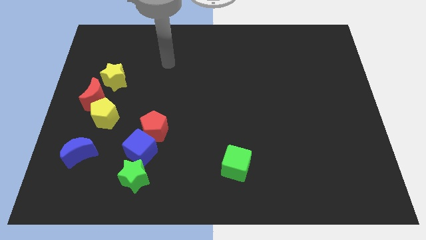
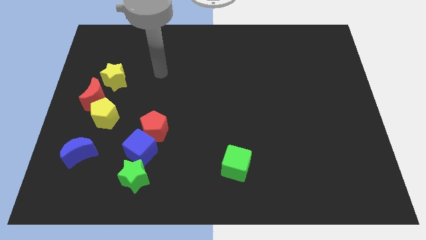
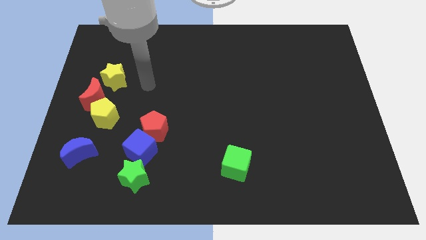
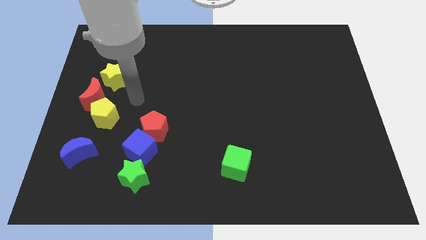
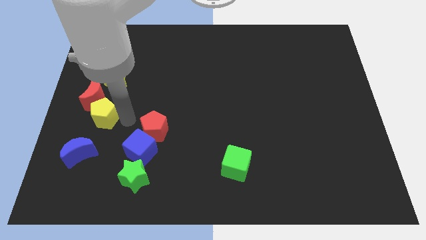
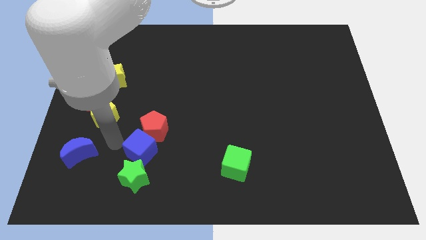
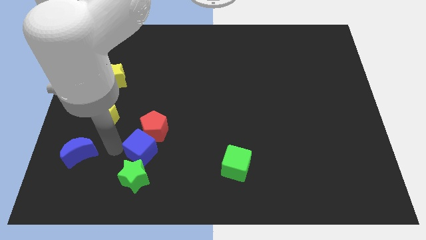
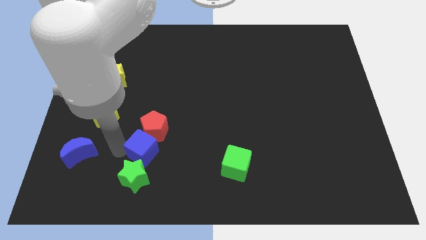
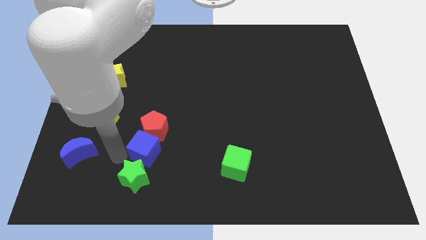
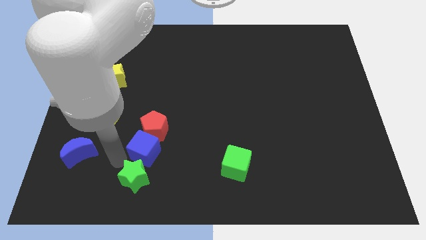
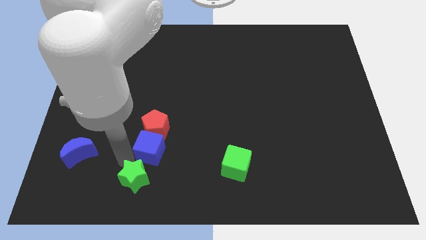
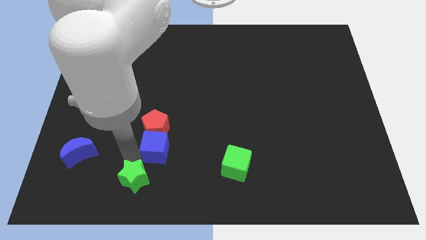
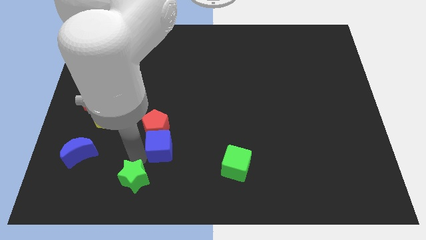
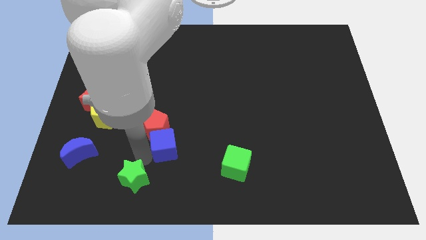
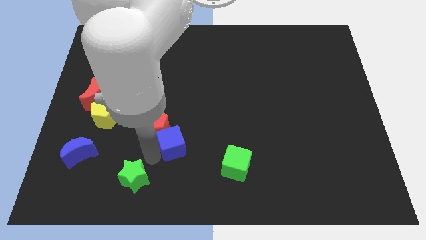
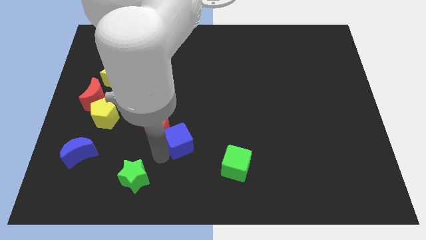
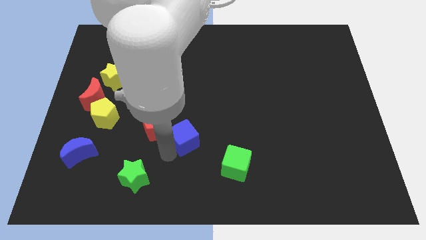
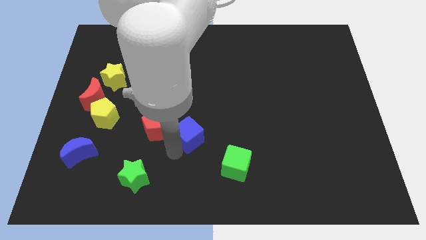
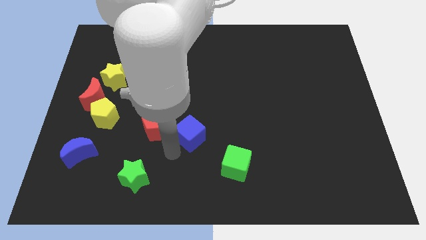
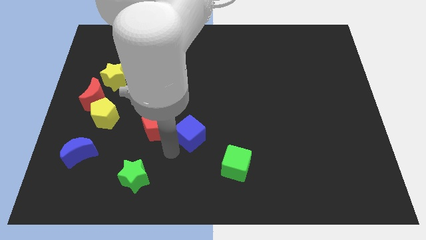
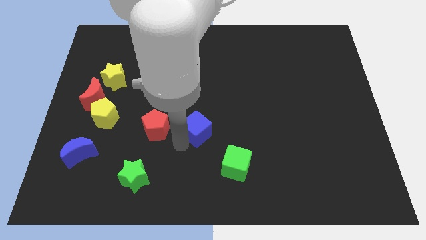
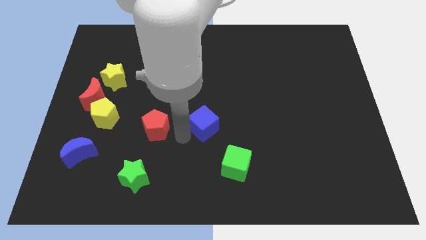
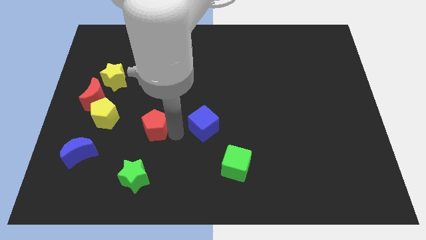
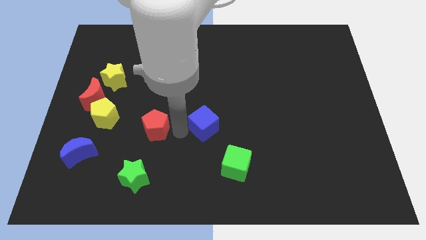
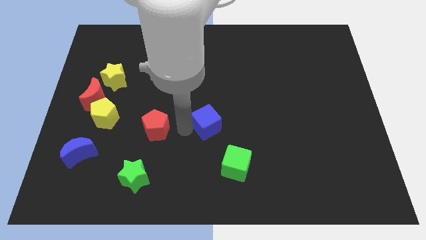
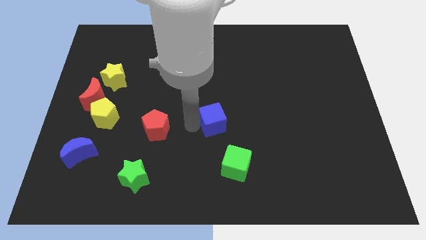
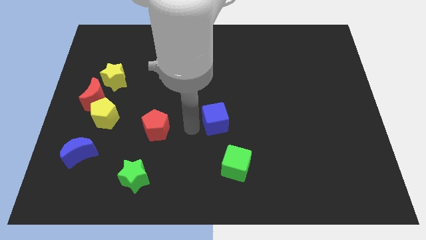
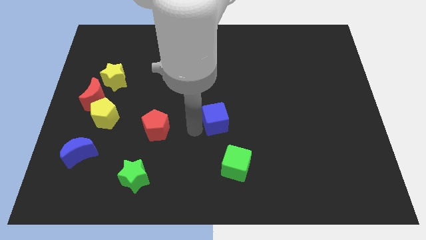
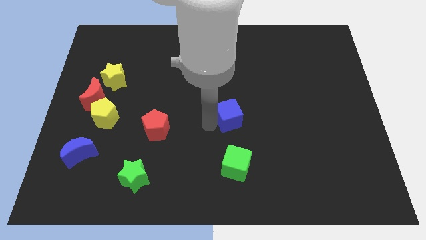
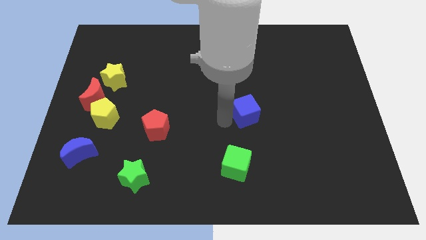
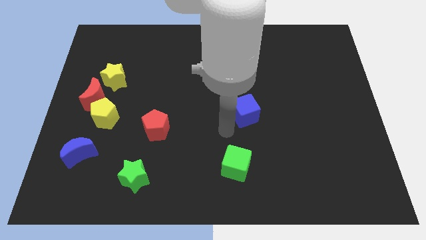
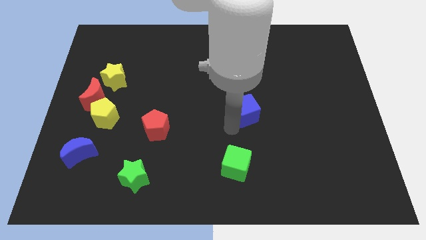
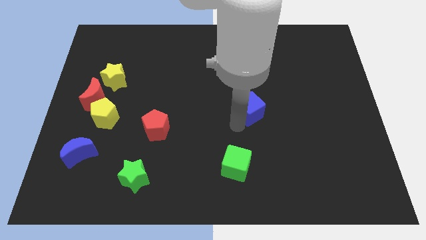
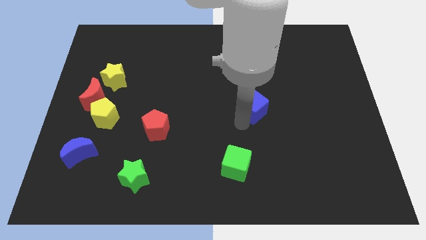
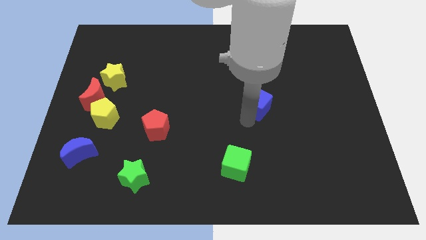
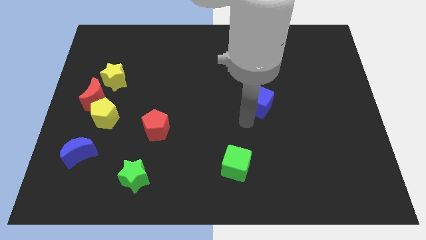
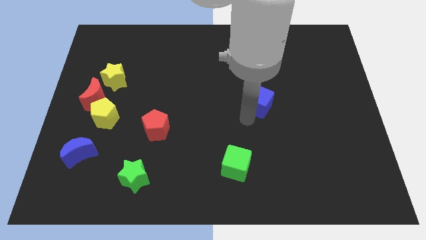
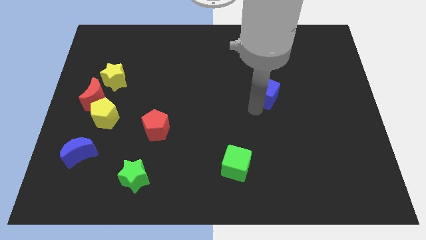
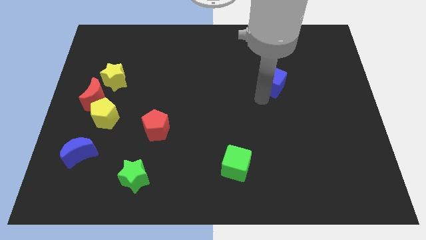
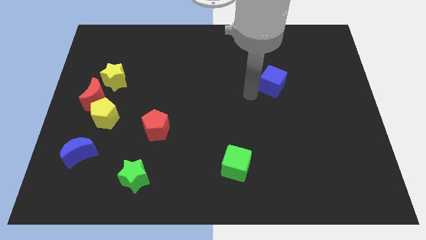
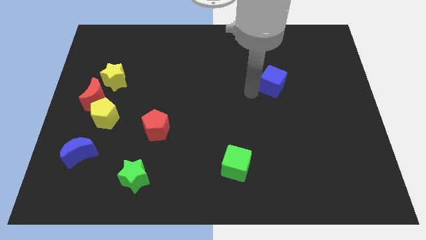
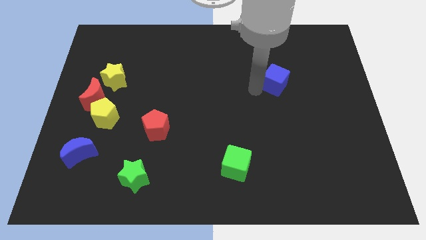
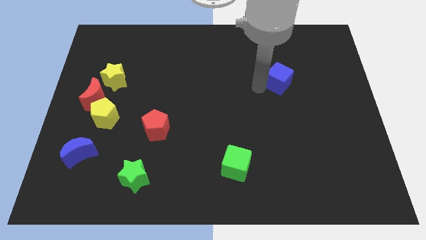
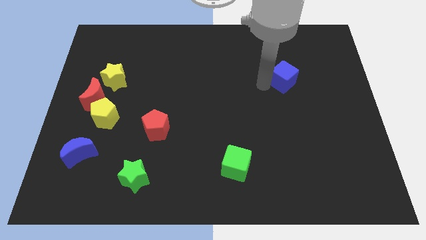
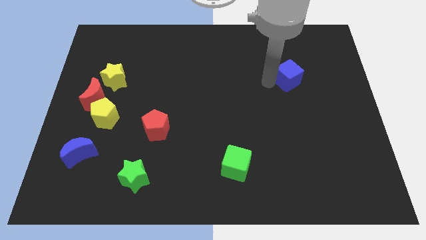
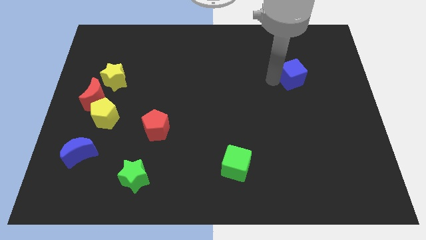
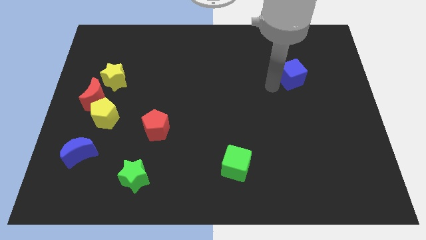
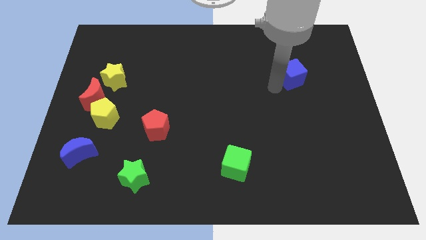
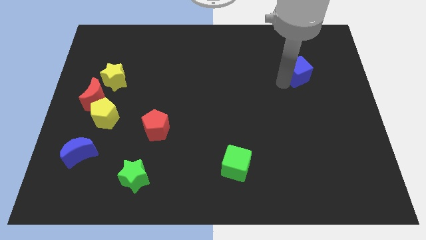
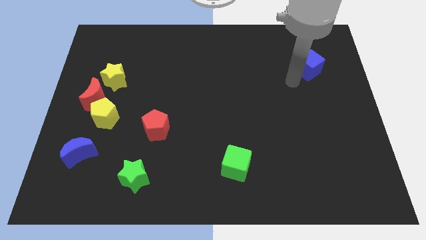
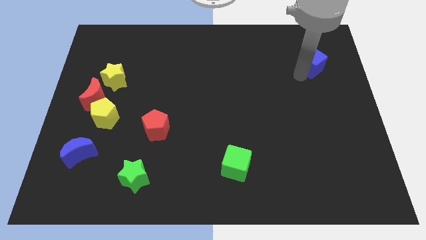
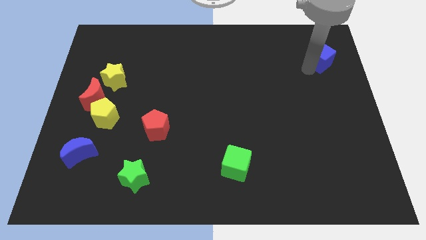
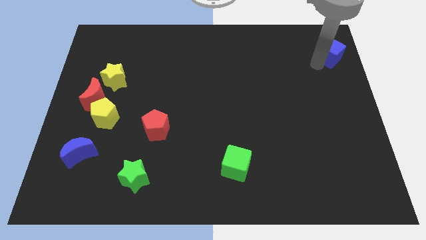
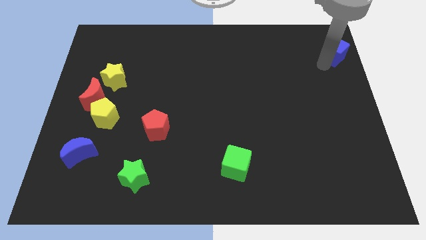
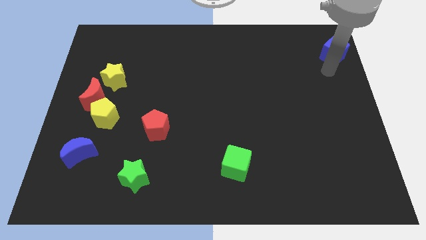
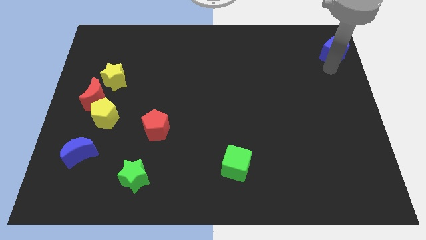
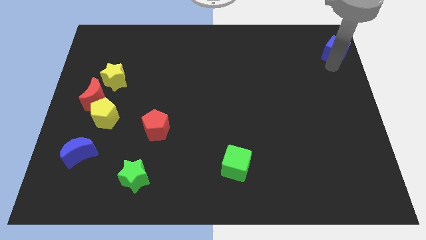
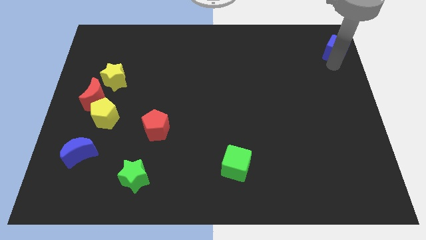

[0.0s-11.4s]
slide the blue cube to the top right of the board

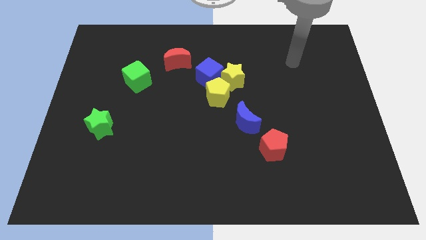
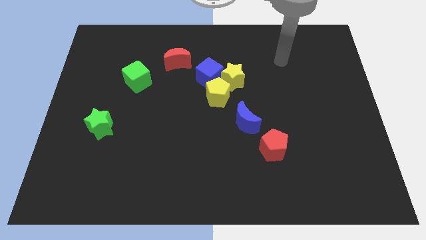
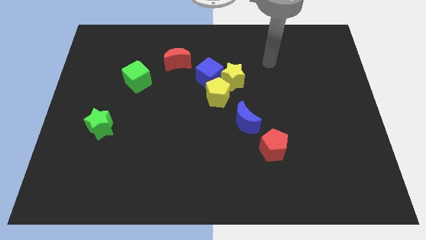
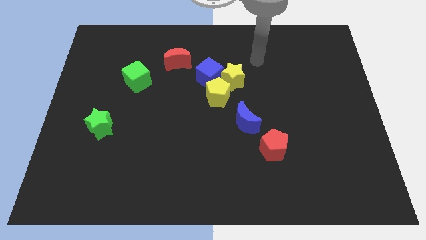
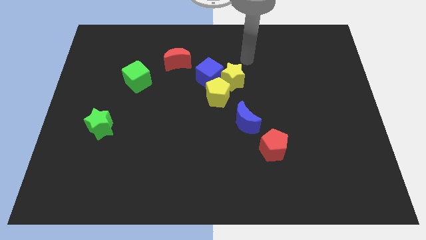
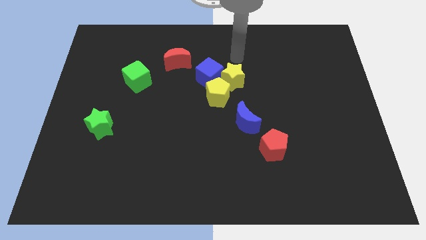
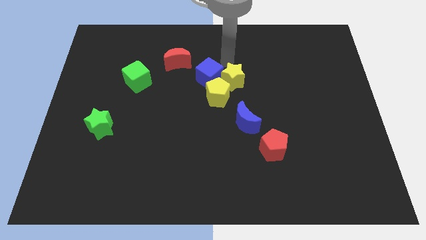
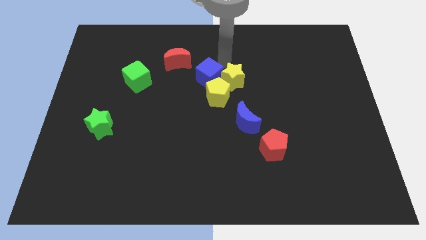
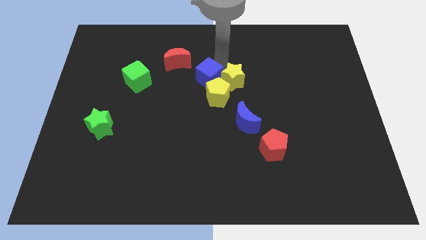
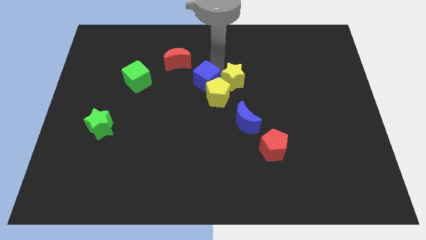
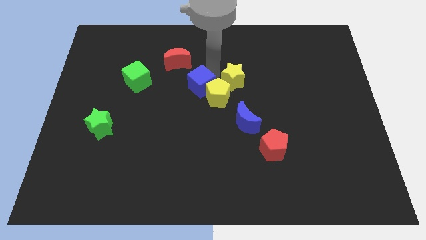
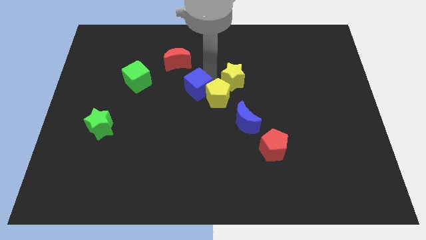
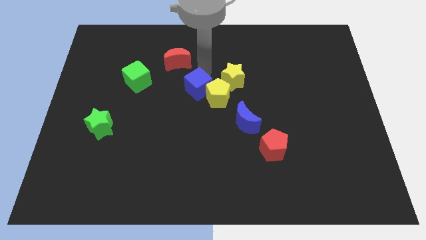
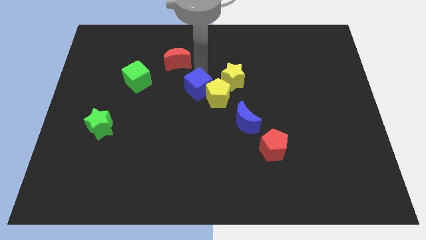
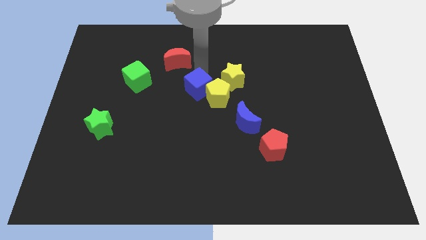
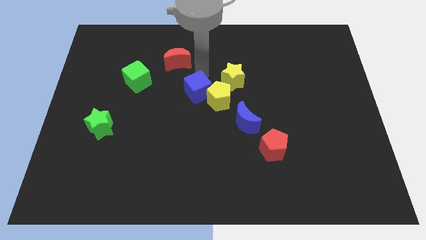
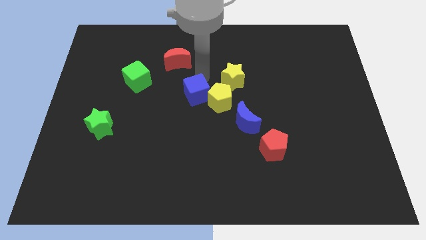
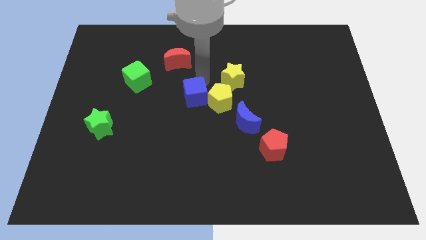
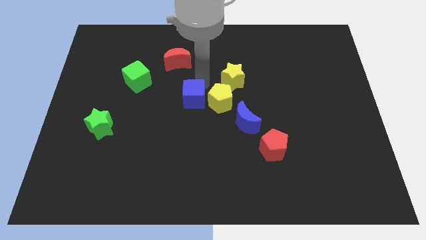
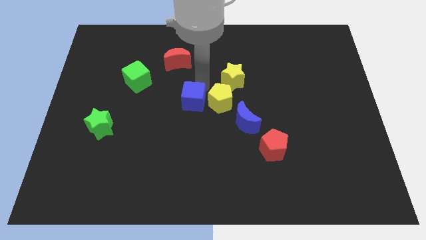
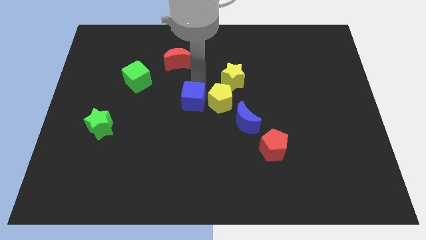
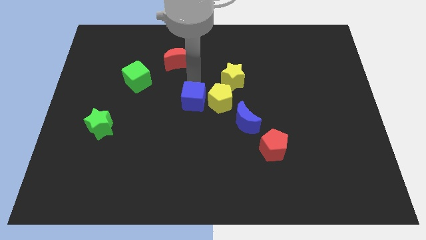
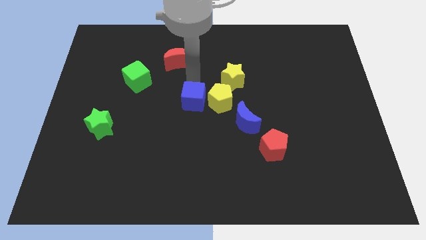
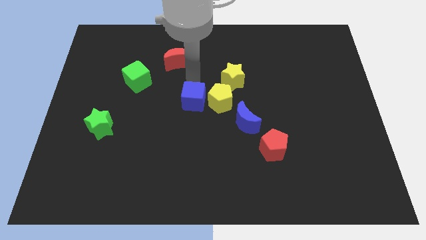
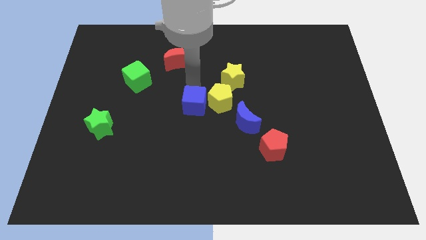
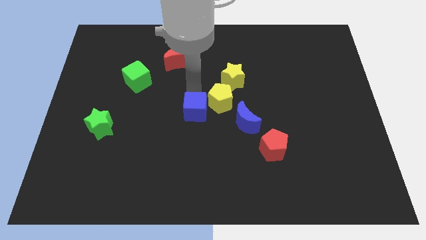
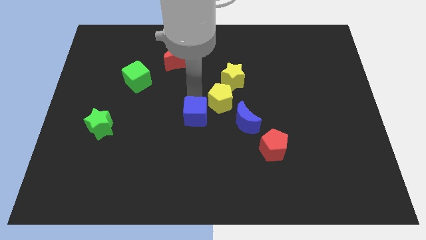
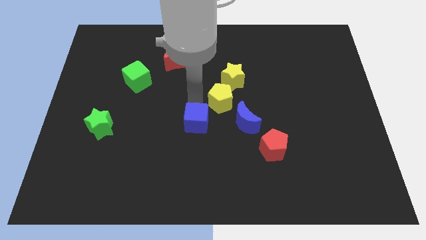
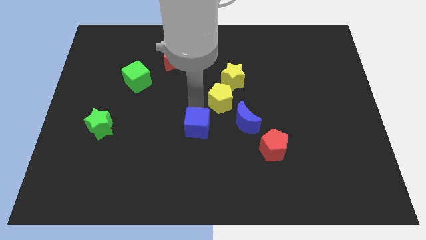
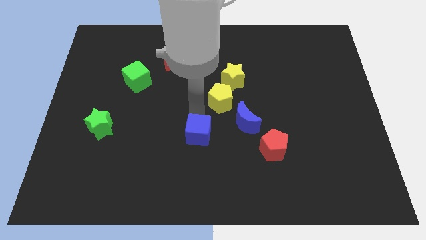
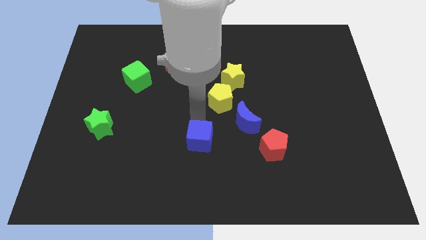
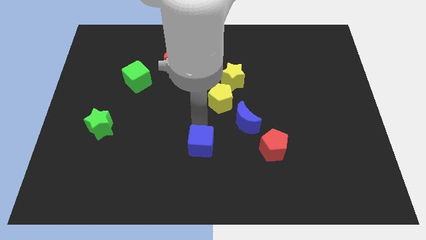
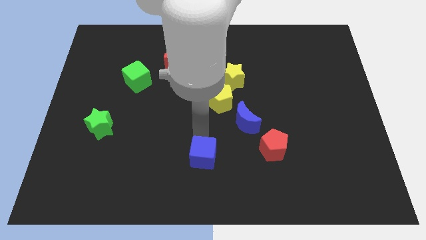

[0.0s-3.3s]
move the blue cube to the bottom
